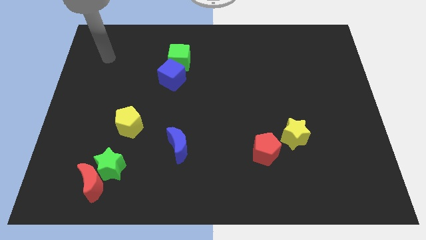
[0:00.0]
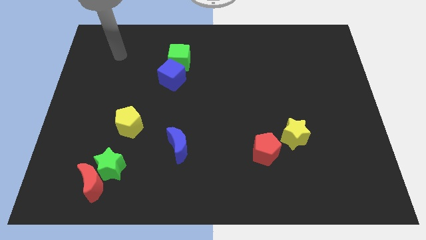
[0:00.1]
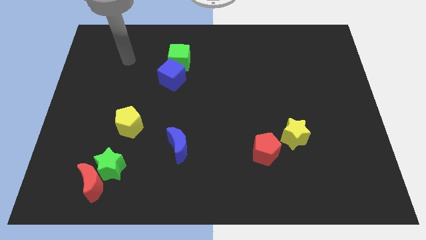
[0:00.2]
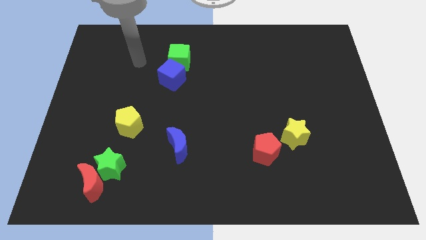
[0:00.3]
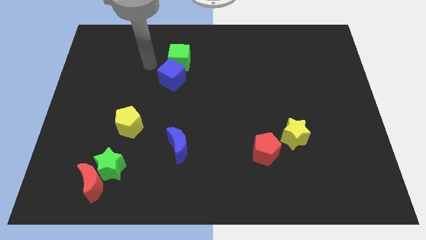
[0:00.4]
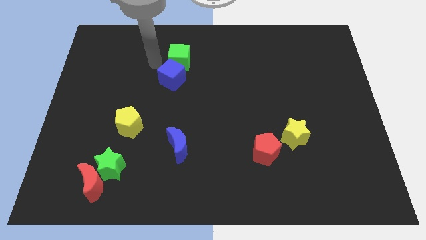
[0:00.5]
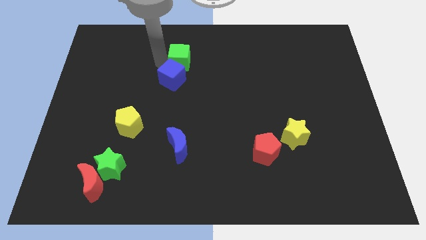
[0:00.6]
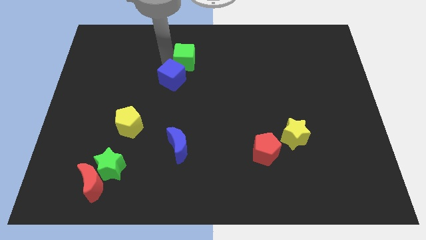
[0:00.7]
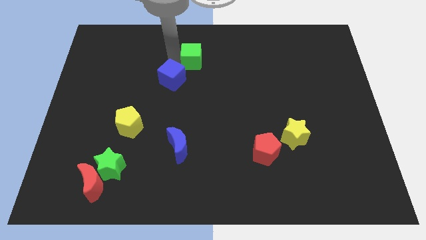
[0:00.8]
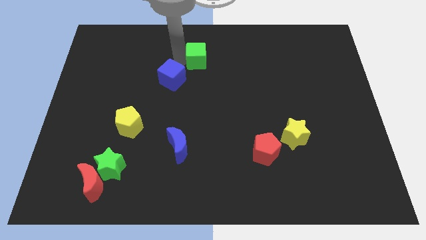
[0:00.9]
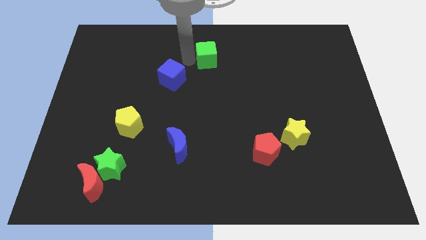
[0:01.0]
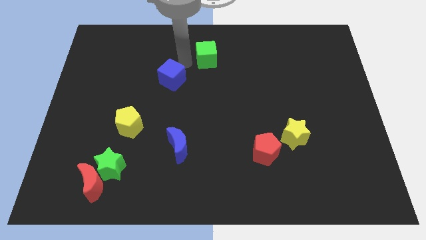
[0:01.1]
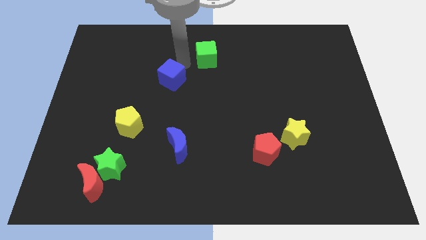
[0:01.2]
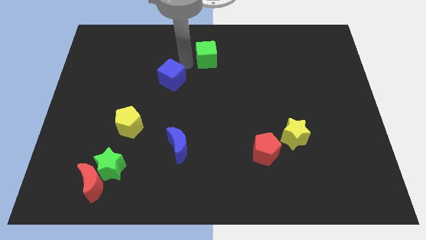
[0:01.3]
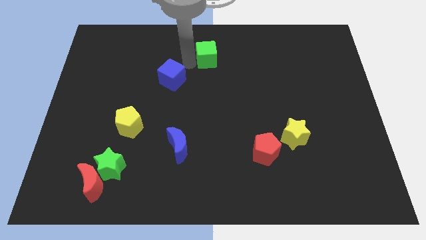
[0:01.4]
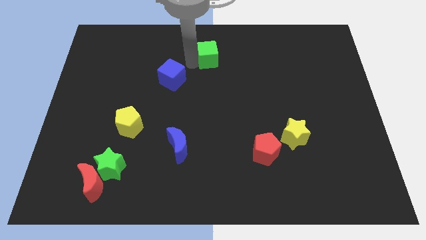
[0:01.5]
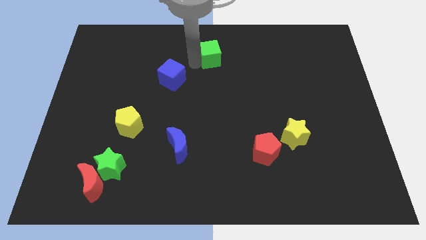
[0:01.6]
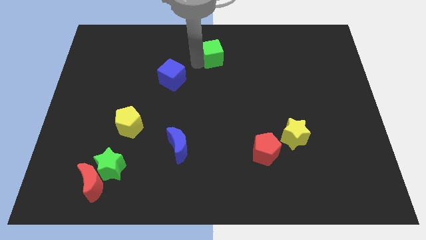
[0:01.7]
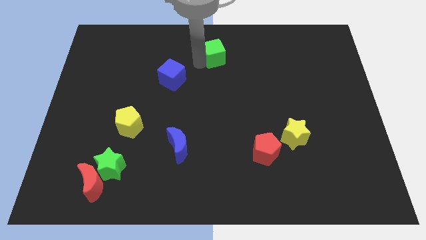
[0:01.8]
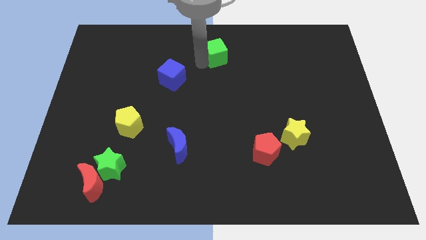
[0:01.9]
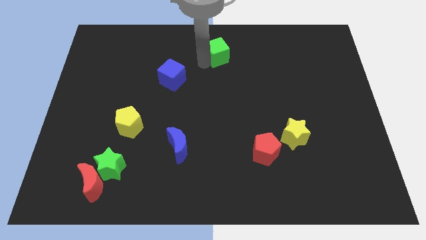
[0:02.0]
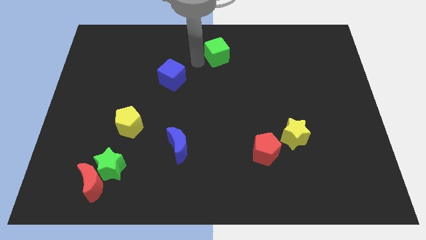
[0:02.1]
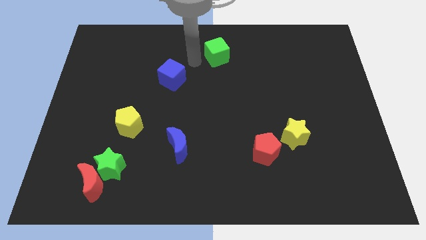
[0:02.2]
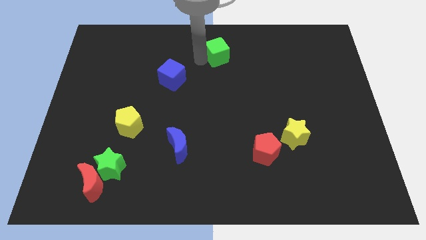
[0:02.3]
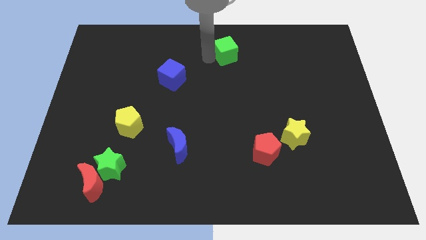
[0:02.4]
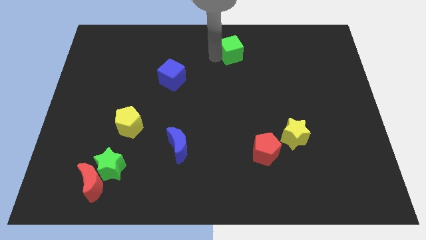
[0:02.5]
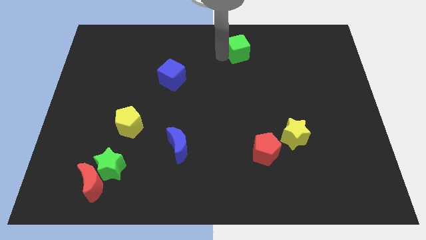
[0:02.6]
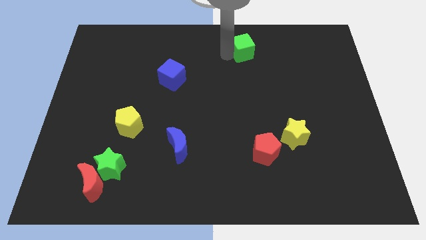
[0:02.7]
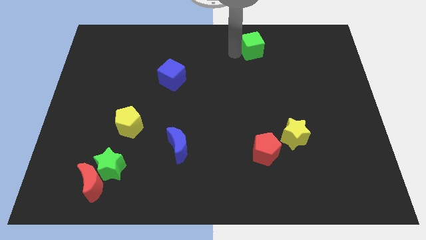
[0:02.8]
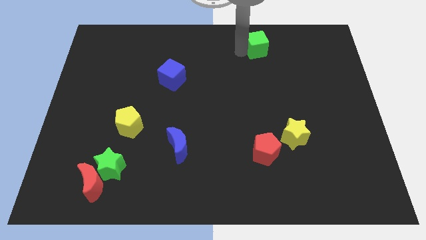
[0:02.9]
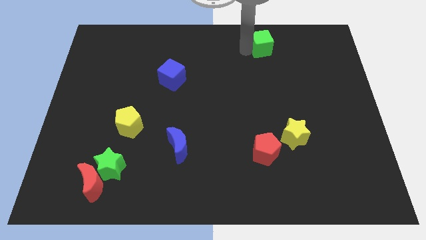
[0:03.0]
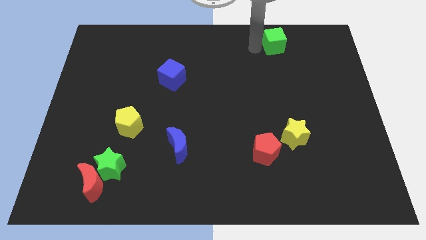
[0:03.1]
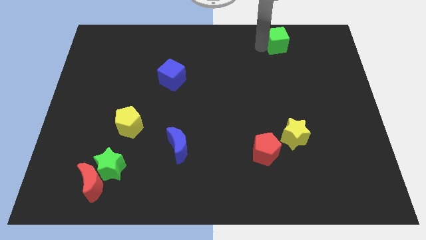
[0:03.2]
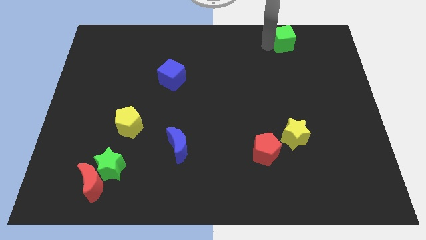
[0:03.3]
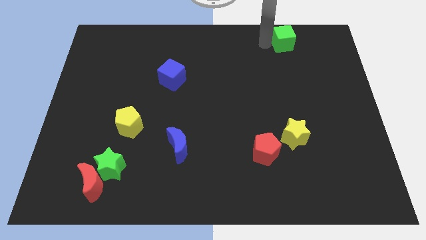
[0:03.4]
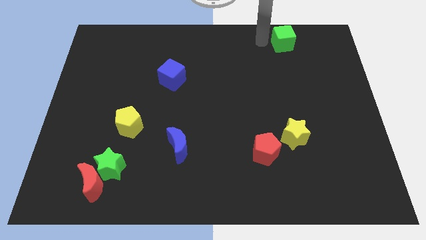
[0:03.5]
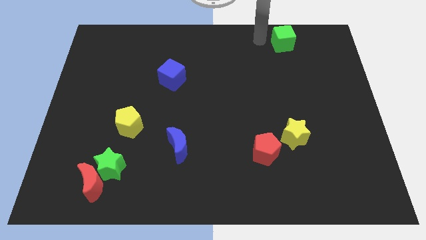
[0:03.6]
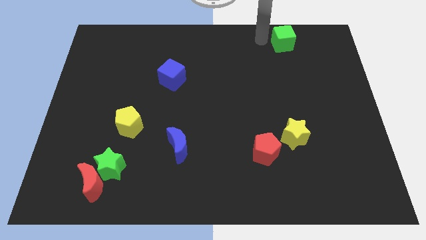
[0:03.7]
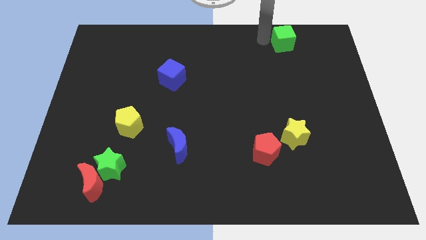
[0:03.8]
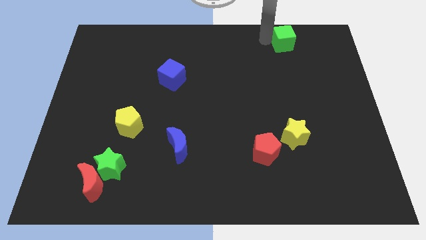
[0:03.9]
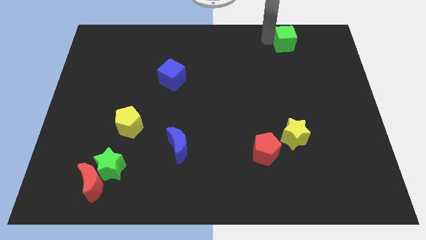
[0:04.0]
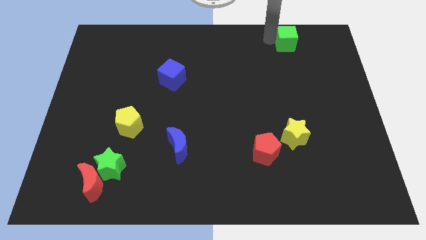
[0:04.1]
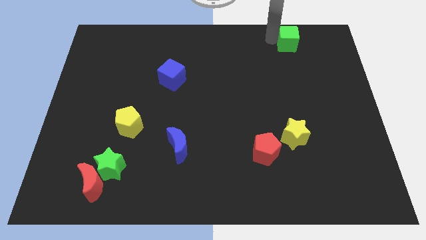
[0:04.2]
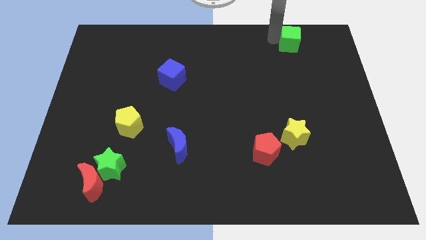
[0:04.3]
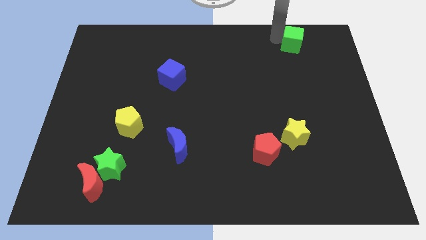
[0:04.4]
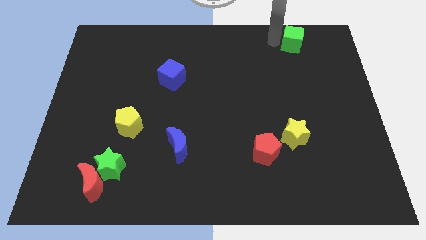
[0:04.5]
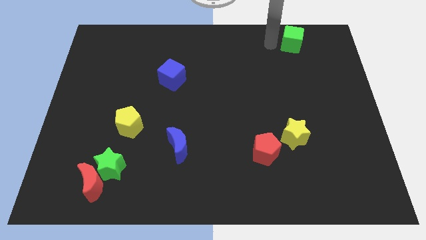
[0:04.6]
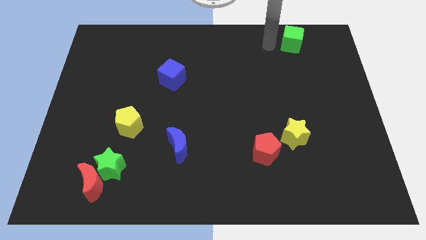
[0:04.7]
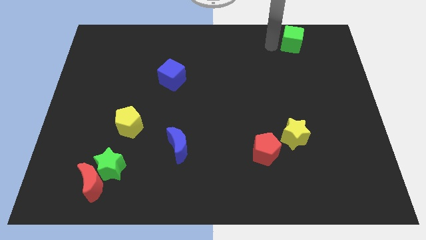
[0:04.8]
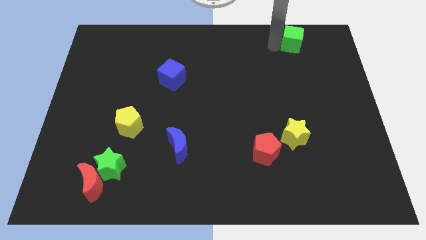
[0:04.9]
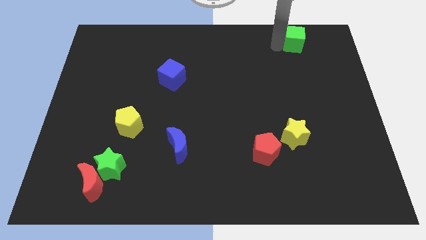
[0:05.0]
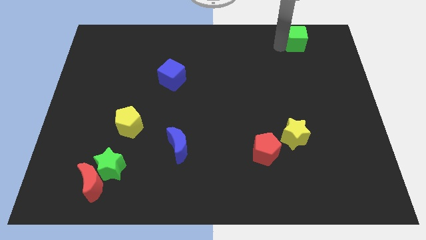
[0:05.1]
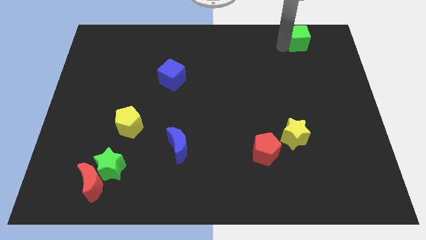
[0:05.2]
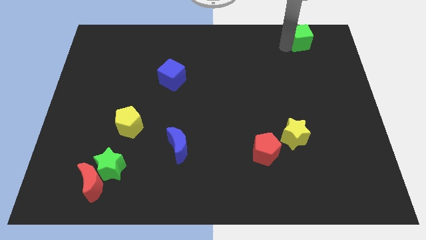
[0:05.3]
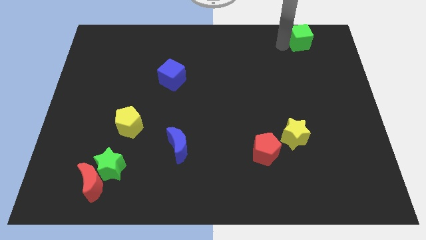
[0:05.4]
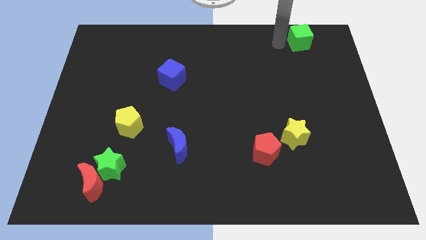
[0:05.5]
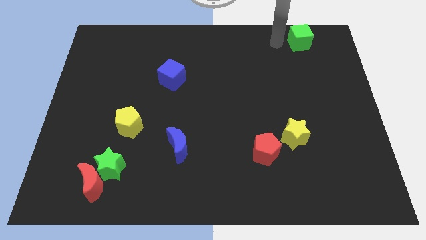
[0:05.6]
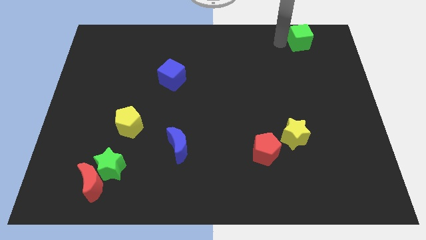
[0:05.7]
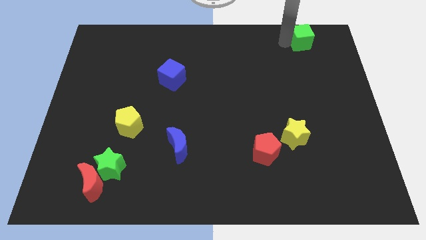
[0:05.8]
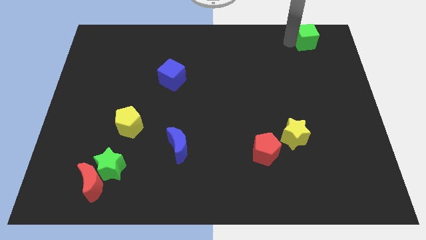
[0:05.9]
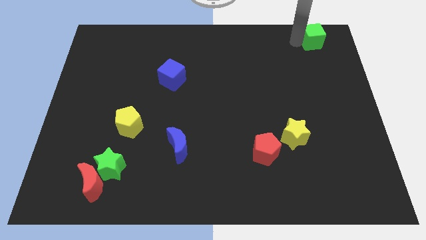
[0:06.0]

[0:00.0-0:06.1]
move the green cube to the top right corner
